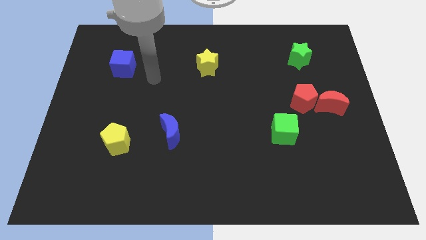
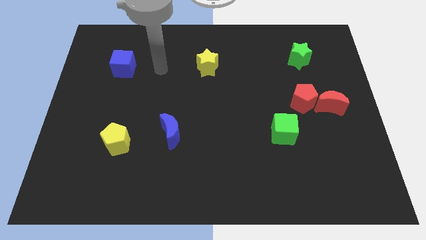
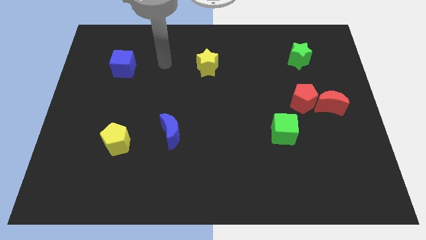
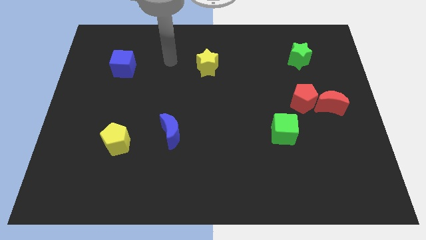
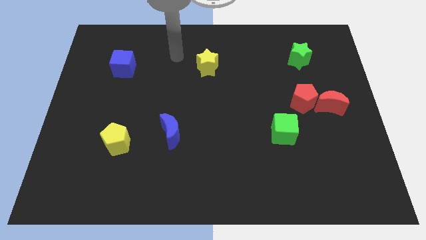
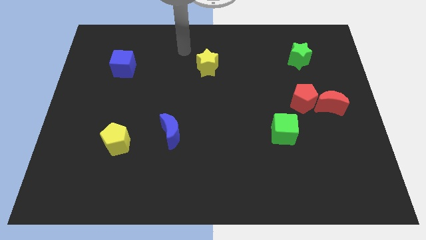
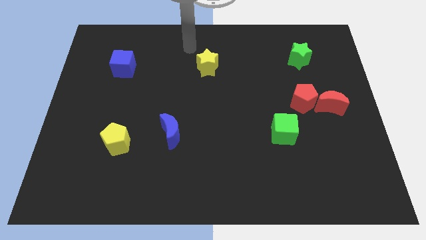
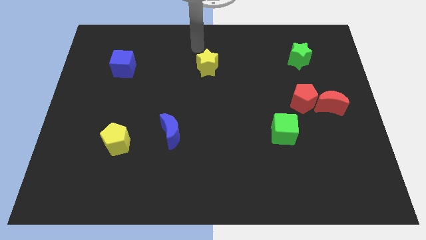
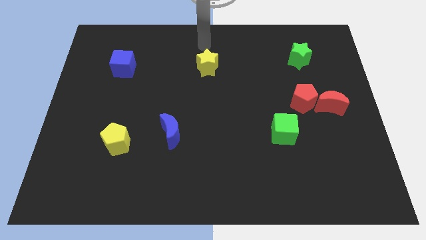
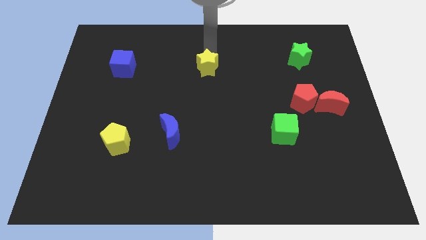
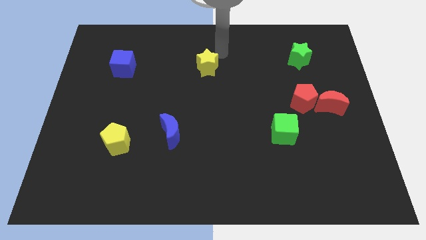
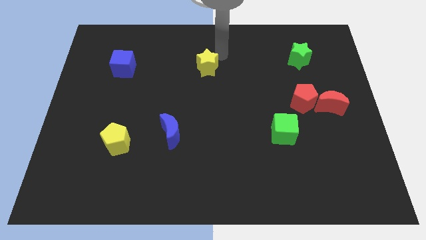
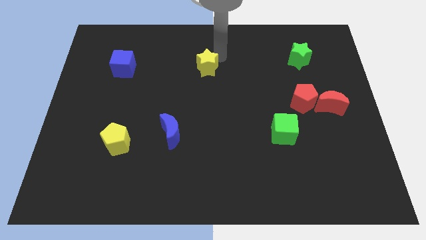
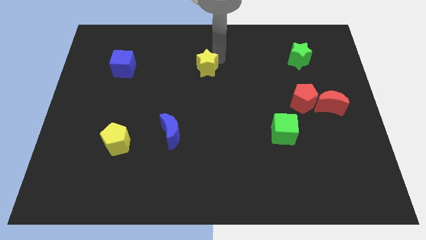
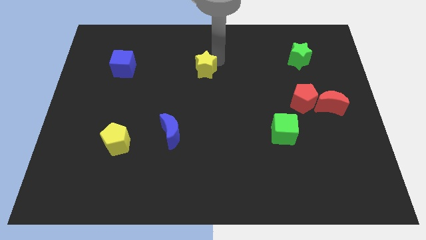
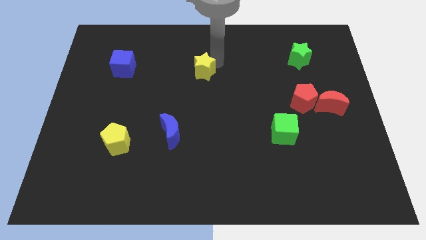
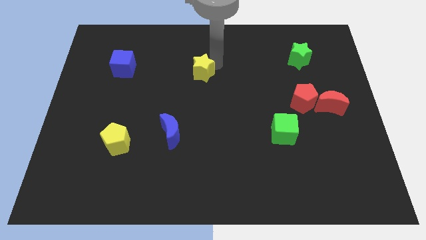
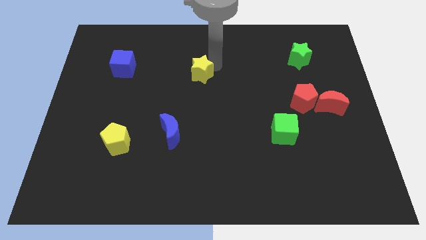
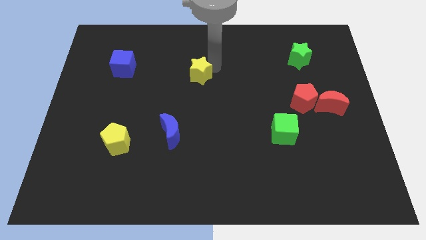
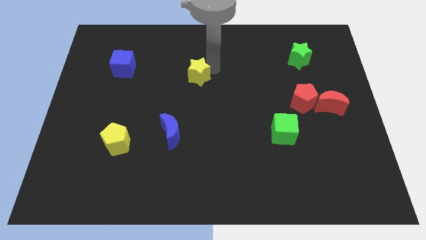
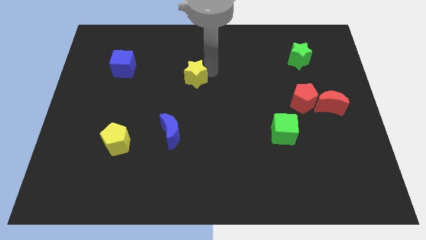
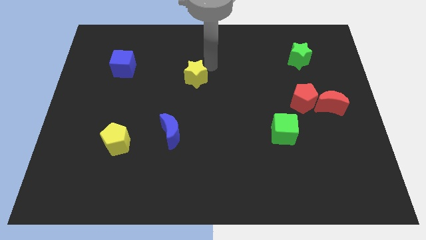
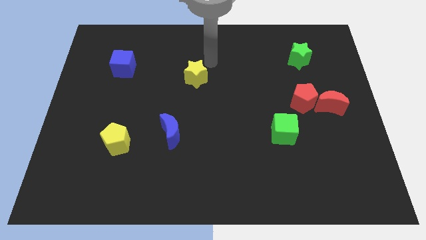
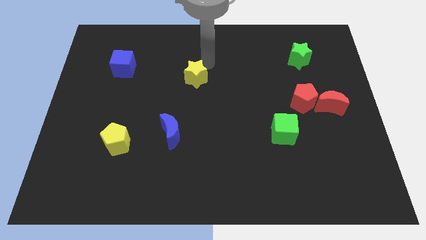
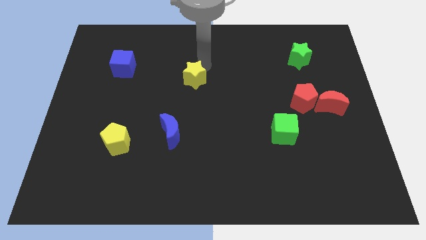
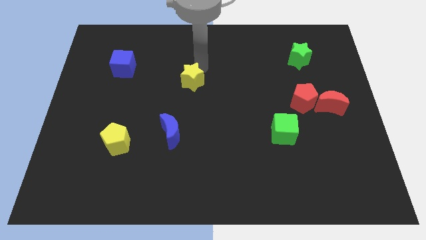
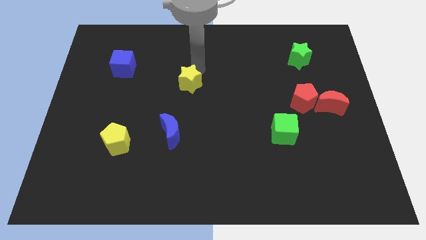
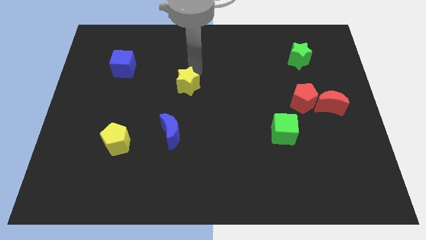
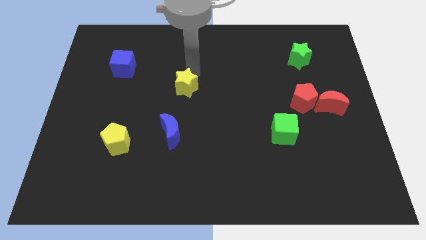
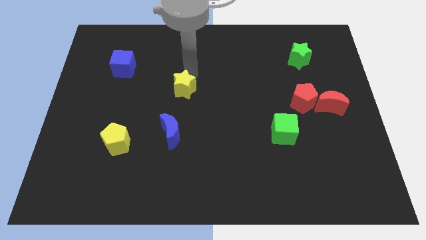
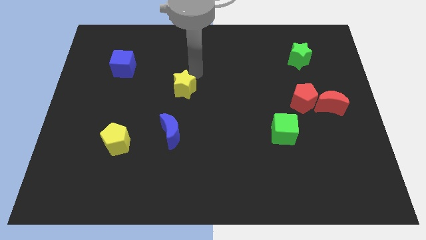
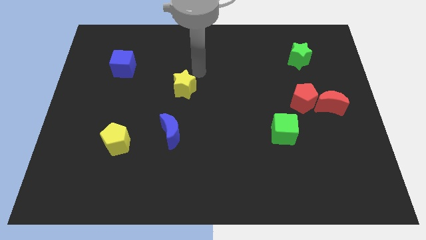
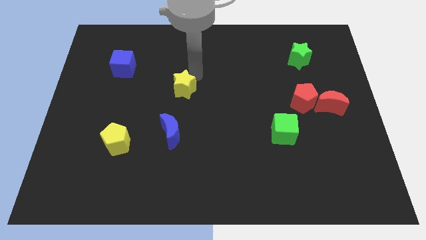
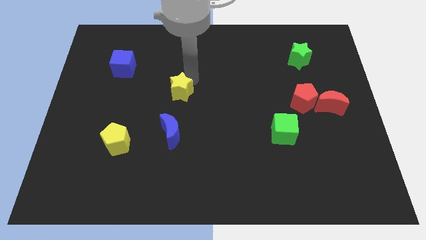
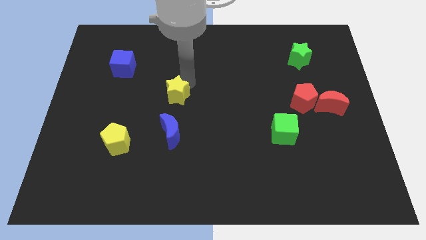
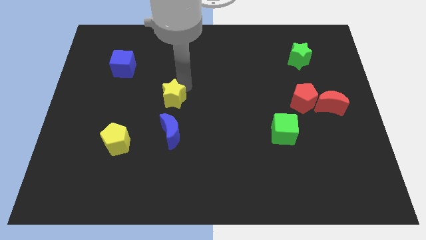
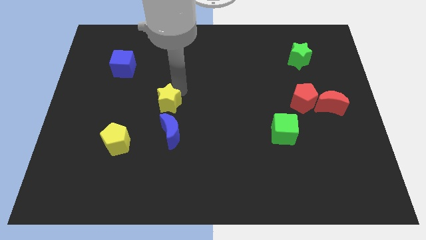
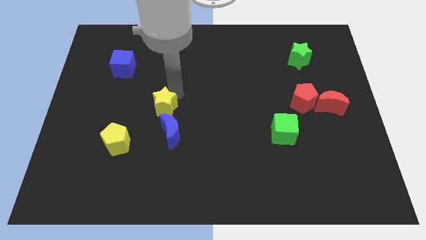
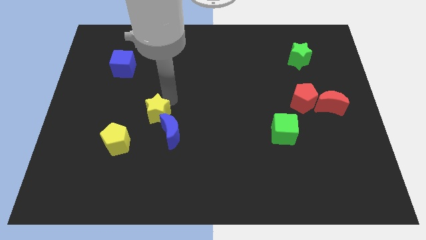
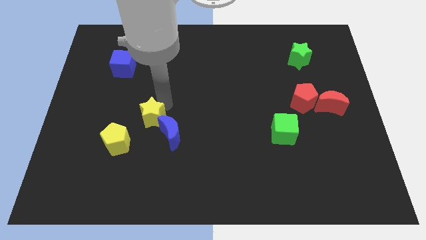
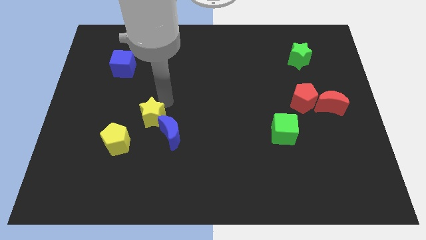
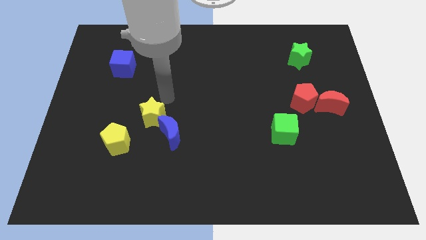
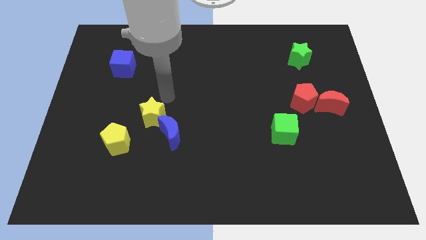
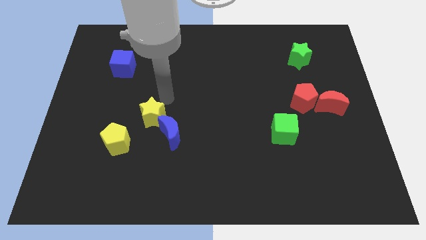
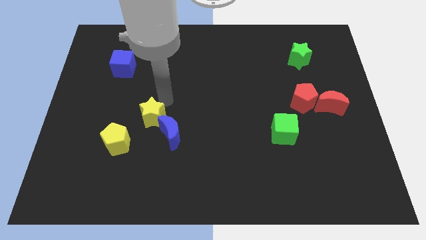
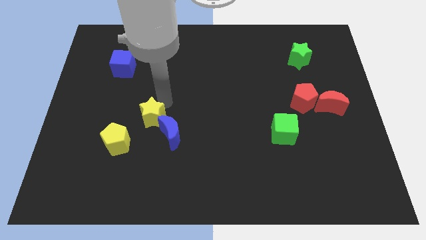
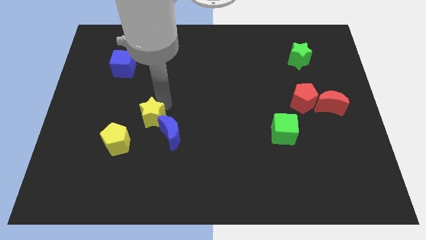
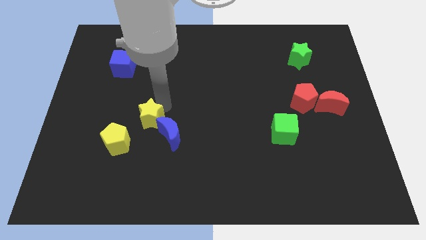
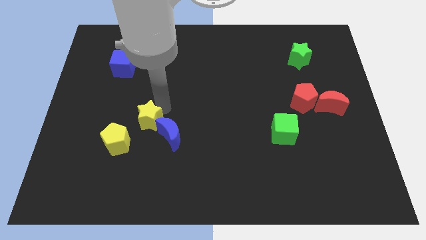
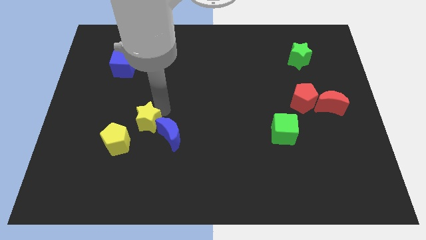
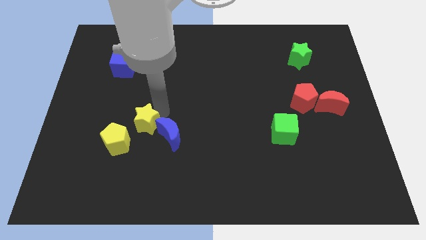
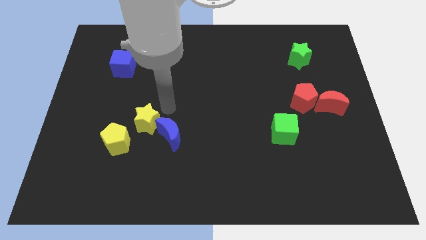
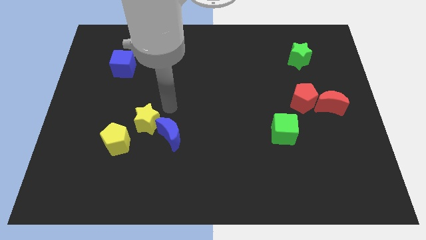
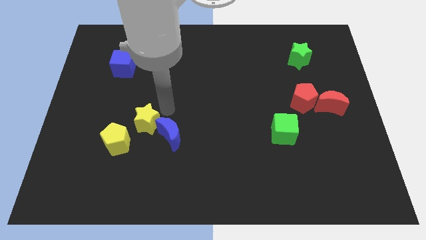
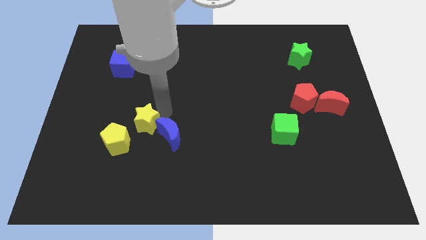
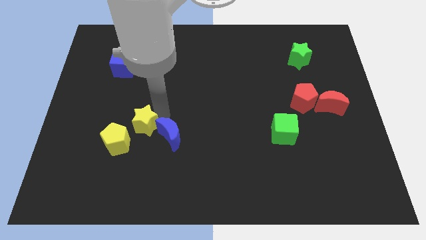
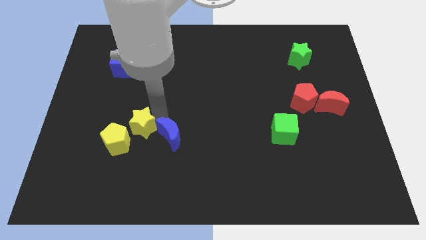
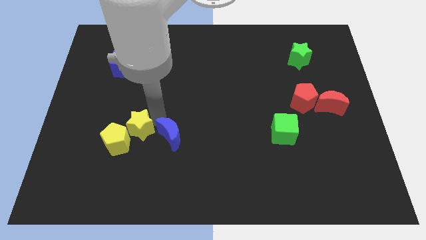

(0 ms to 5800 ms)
move the yellow star next to the yellow pentagon

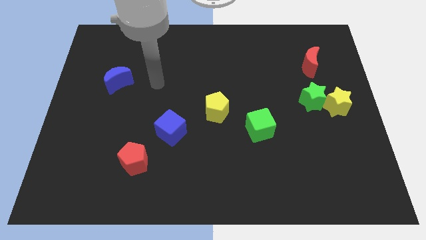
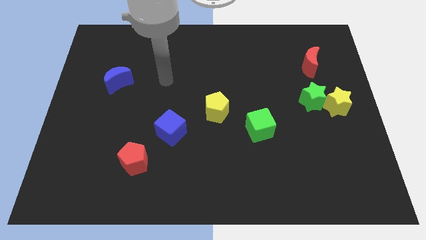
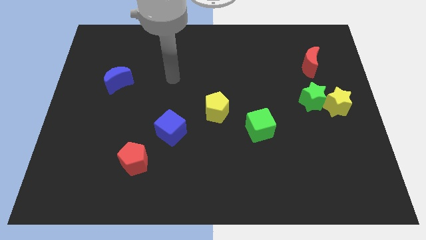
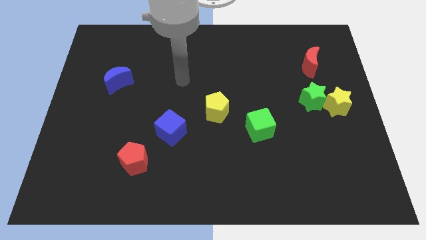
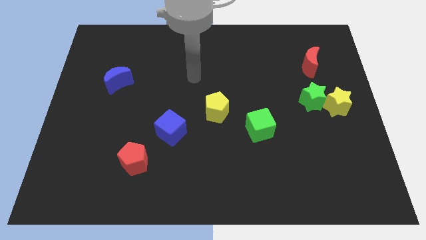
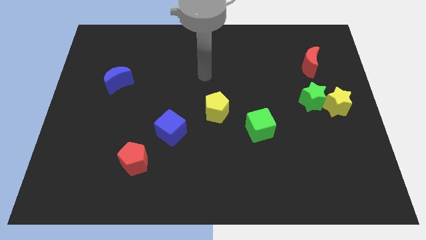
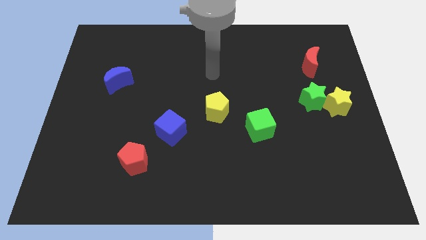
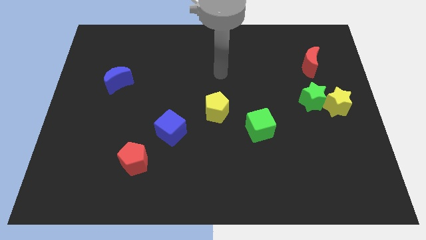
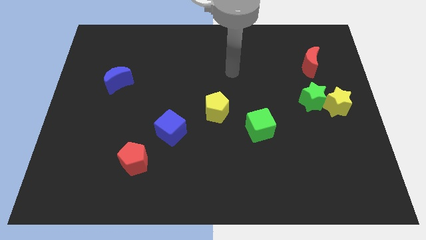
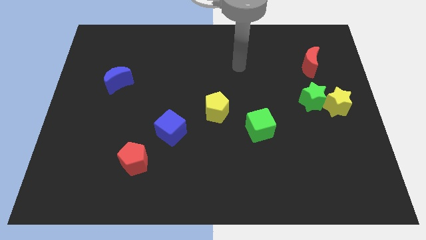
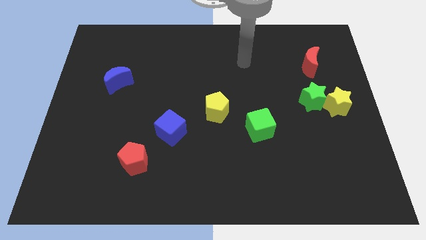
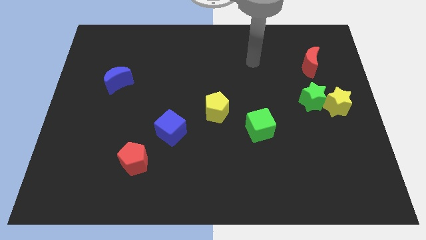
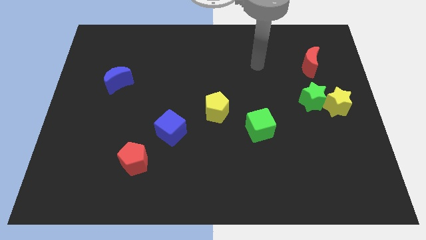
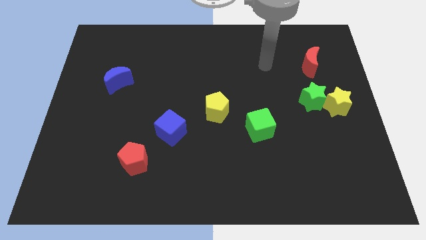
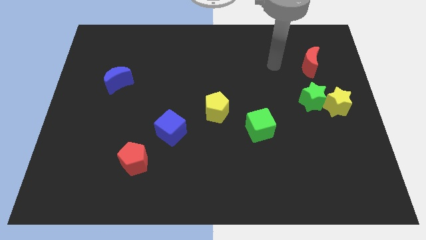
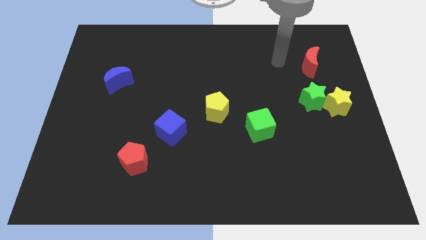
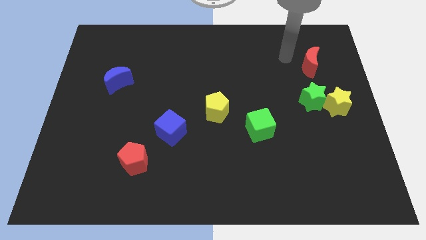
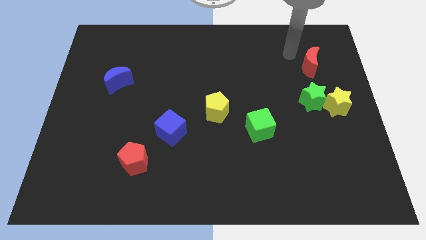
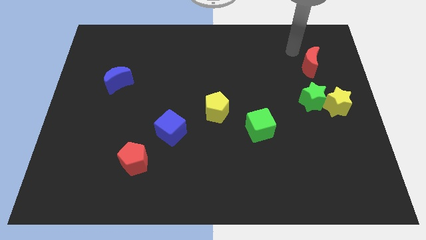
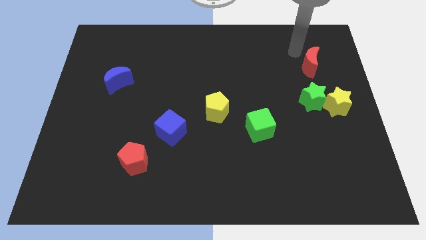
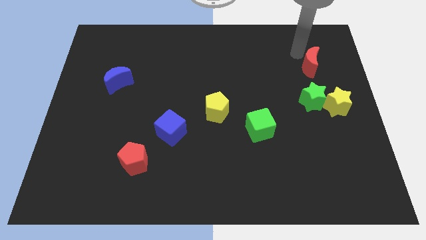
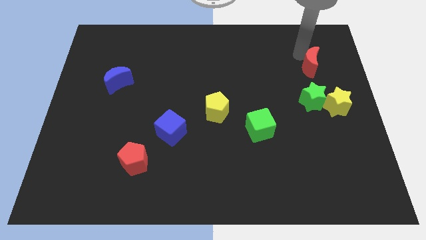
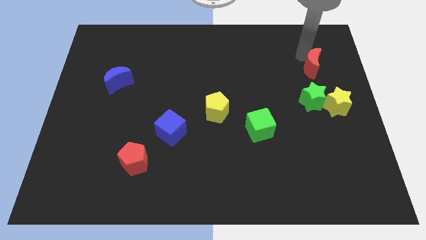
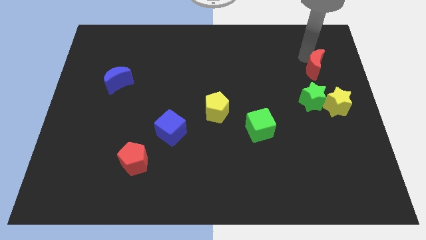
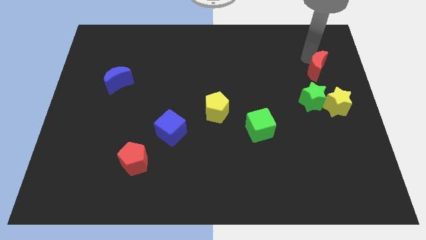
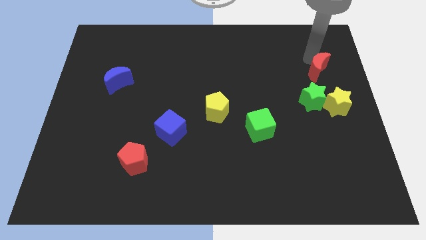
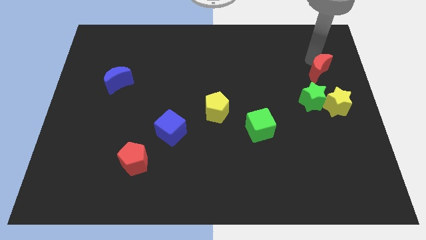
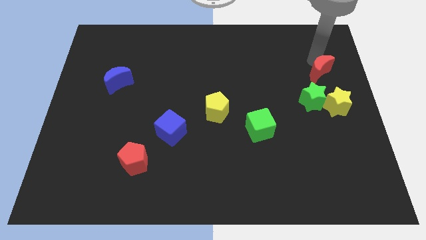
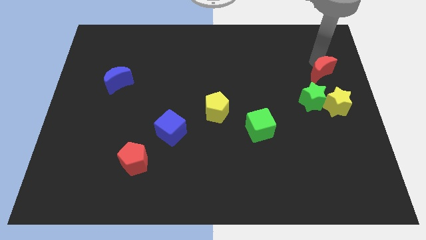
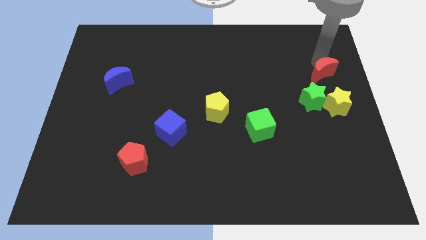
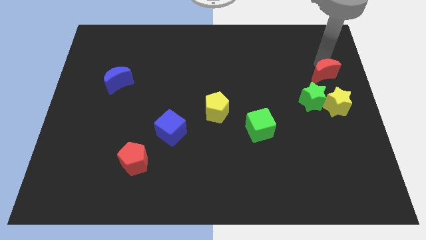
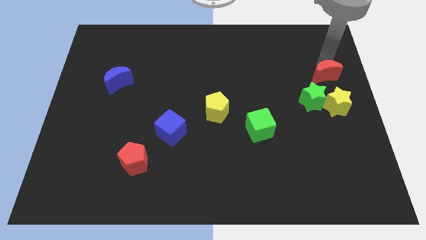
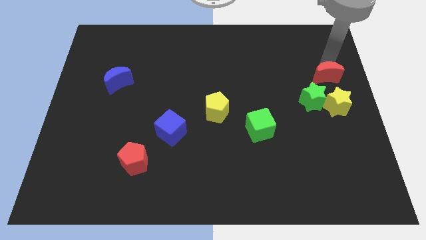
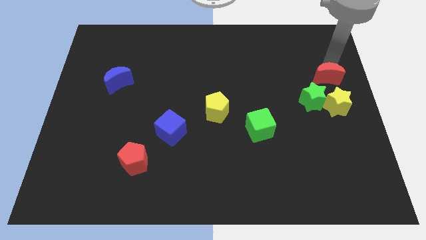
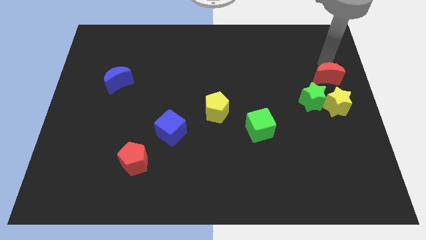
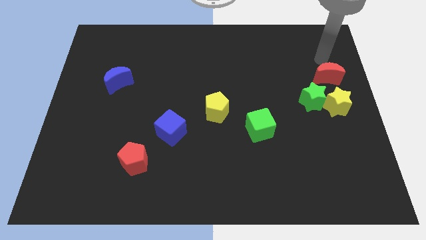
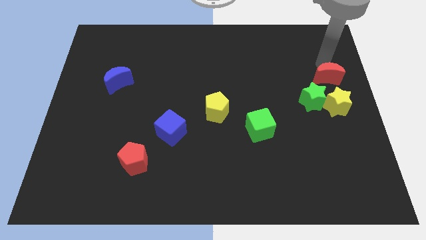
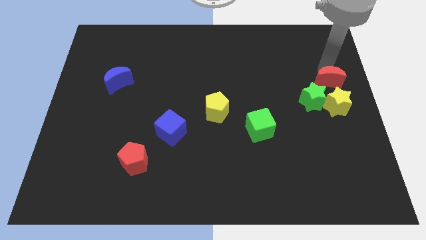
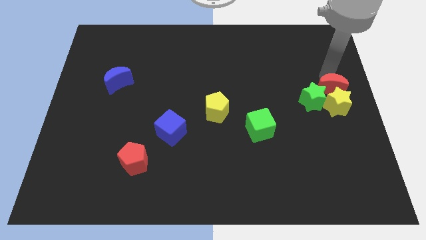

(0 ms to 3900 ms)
move the red moon next to the yellow star
